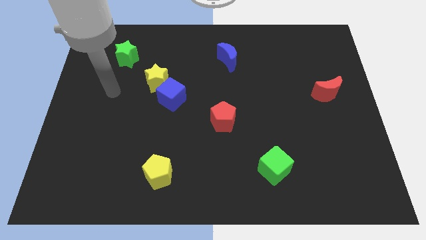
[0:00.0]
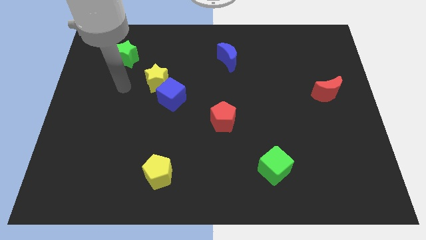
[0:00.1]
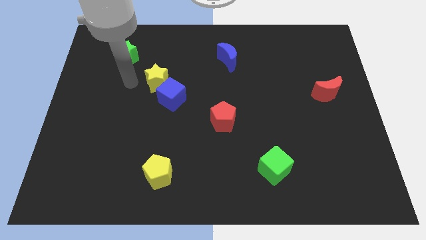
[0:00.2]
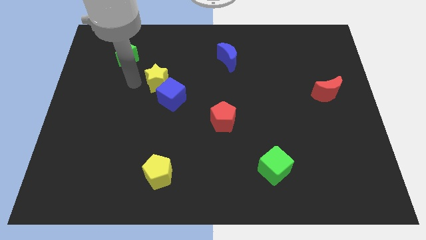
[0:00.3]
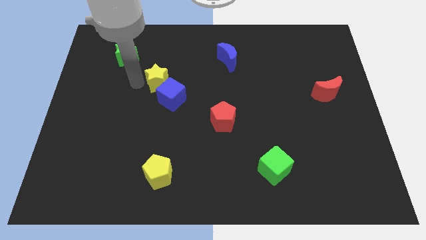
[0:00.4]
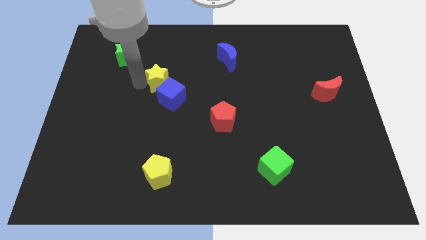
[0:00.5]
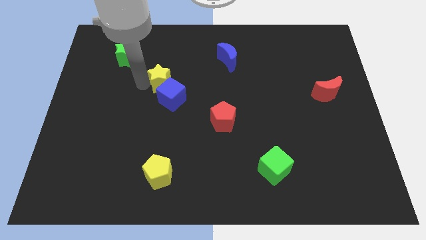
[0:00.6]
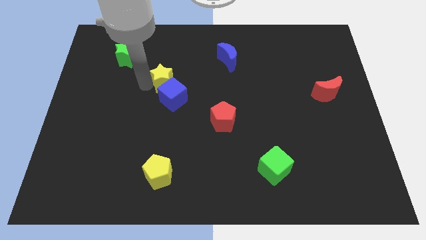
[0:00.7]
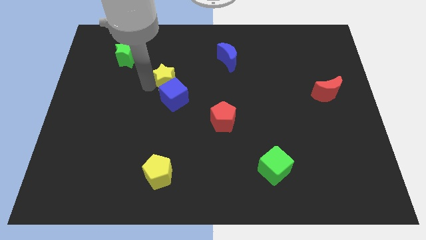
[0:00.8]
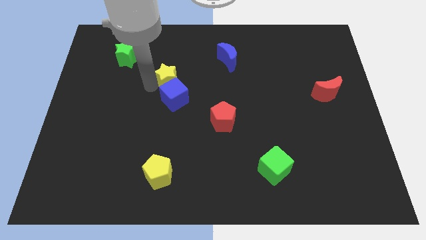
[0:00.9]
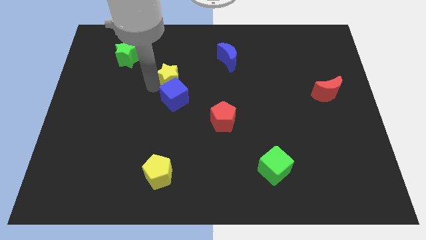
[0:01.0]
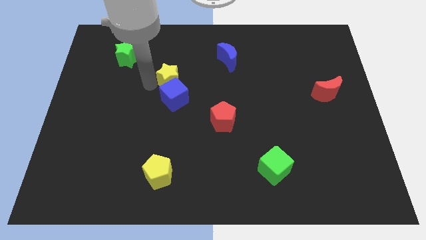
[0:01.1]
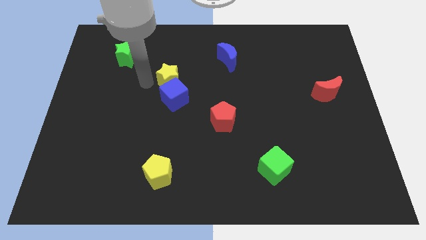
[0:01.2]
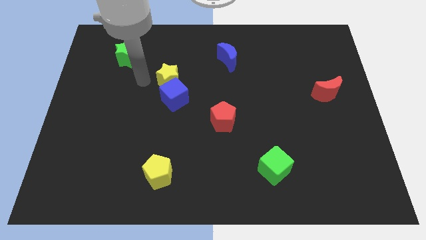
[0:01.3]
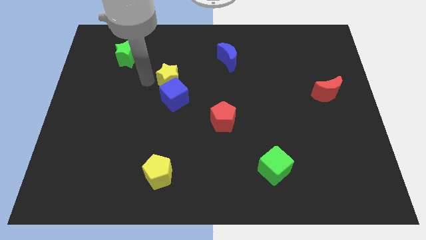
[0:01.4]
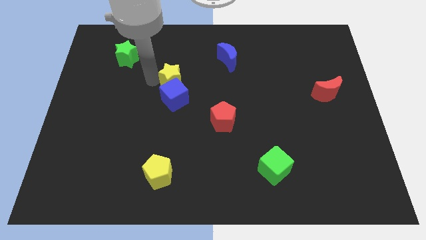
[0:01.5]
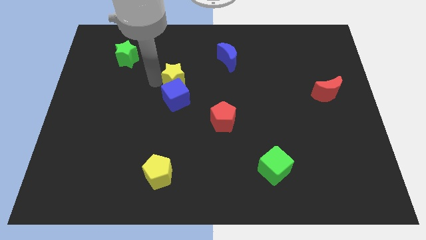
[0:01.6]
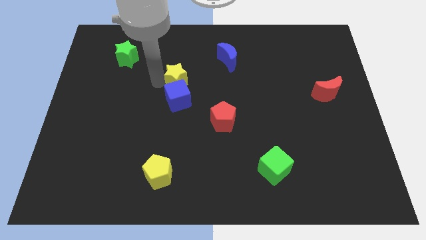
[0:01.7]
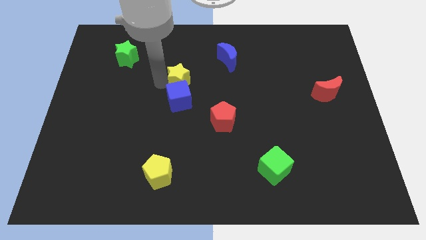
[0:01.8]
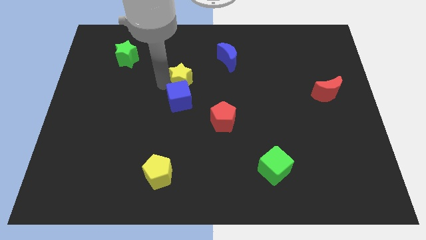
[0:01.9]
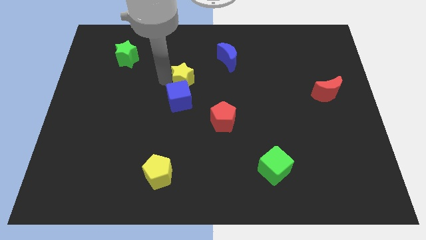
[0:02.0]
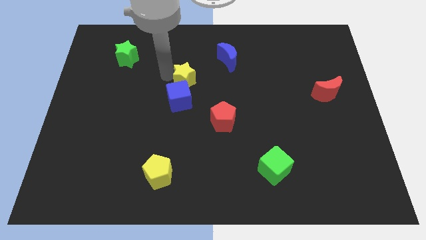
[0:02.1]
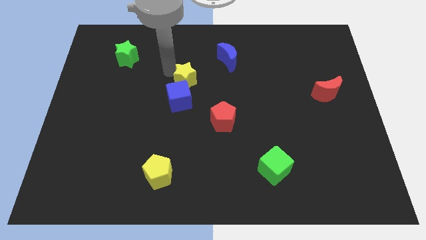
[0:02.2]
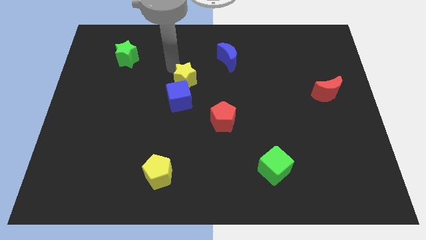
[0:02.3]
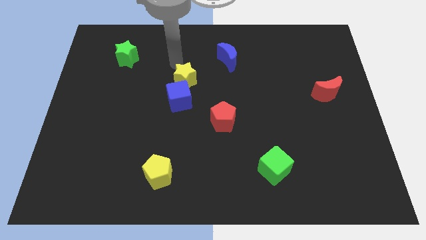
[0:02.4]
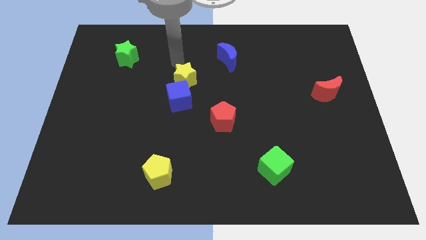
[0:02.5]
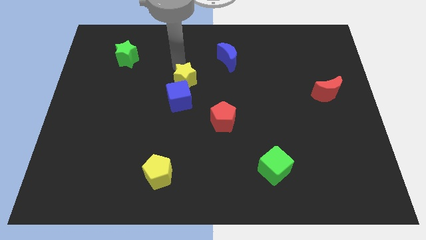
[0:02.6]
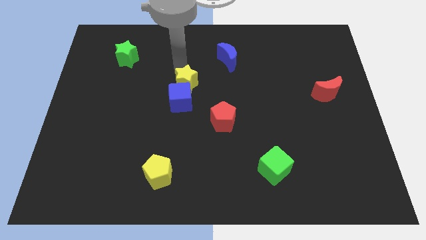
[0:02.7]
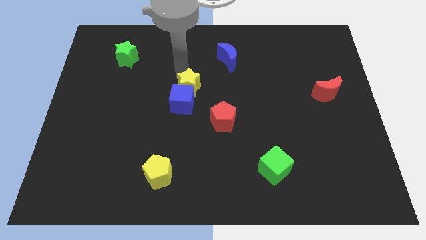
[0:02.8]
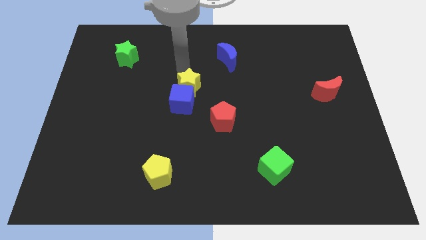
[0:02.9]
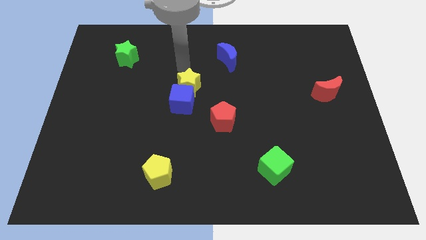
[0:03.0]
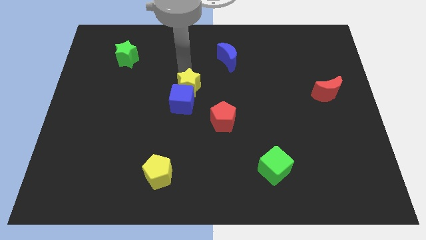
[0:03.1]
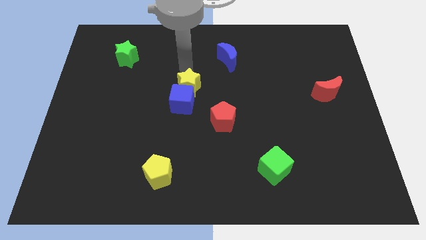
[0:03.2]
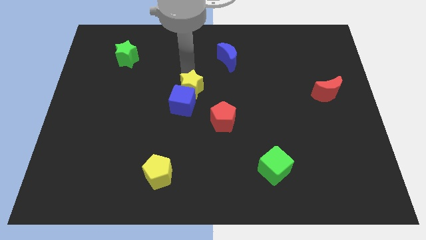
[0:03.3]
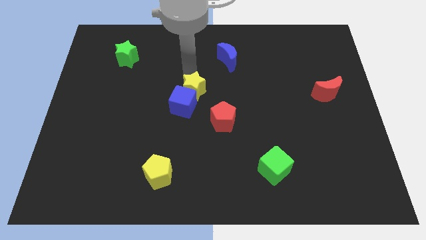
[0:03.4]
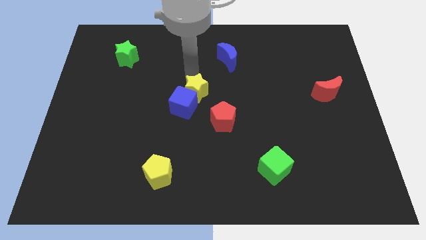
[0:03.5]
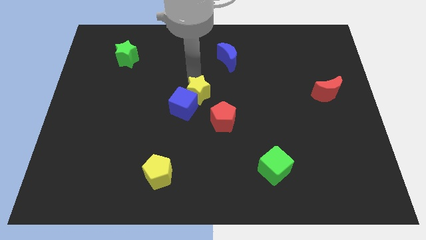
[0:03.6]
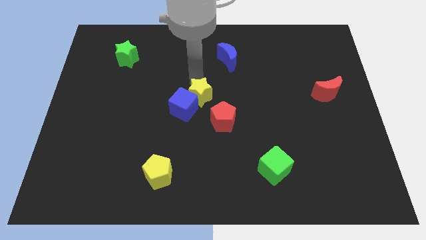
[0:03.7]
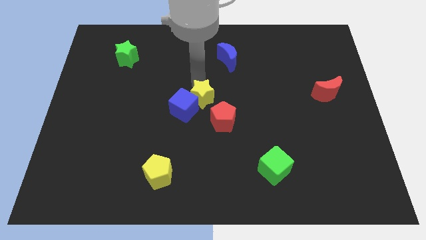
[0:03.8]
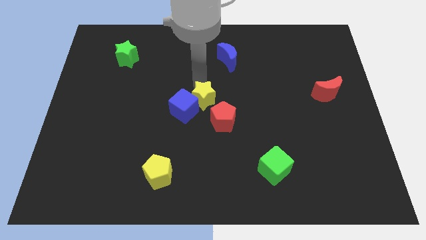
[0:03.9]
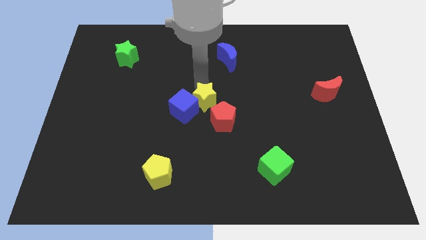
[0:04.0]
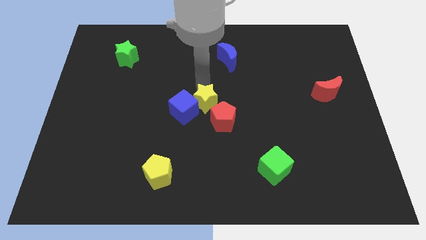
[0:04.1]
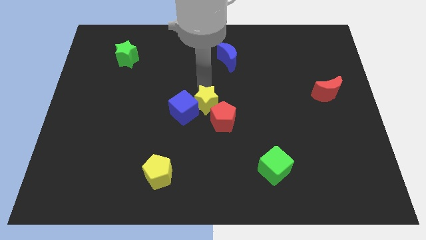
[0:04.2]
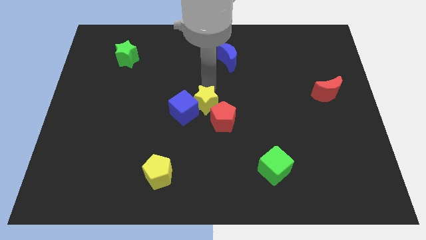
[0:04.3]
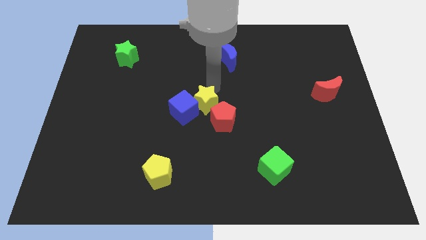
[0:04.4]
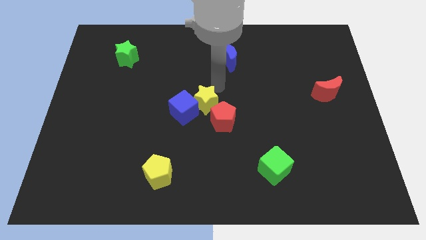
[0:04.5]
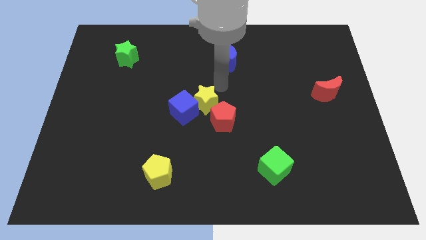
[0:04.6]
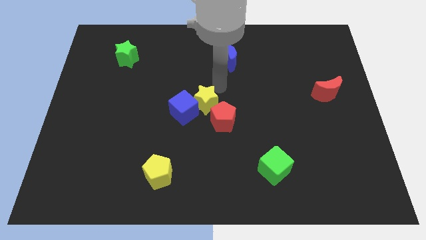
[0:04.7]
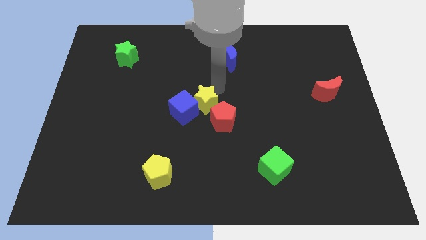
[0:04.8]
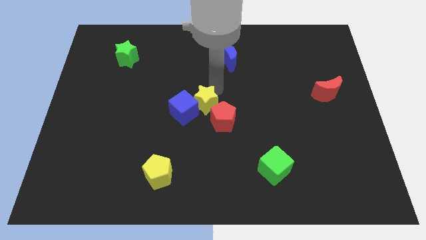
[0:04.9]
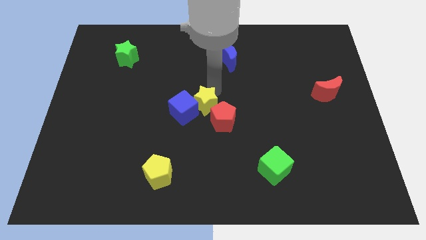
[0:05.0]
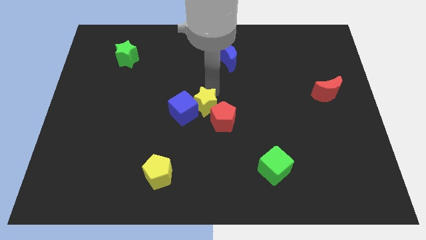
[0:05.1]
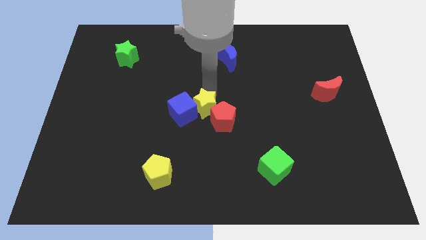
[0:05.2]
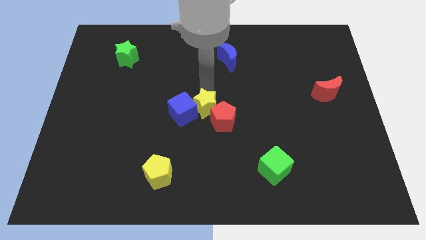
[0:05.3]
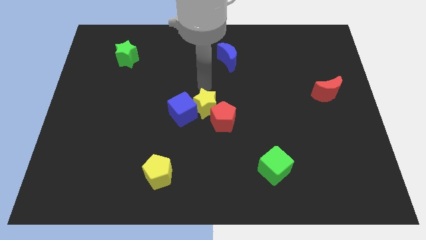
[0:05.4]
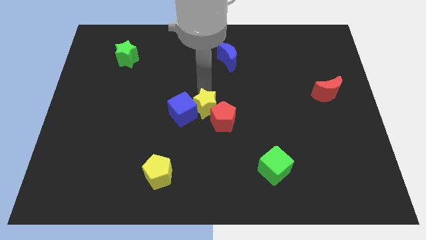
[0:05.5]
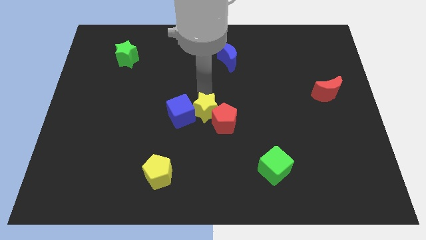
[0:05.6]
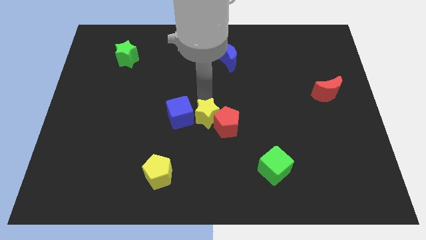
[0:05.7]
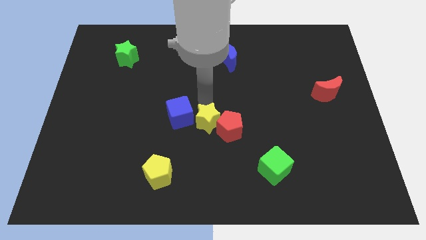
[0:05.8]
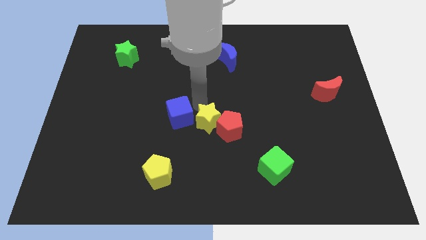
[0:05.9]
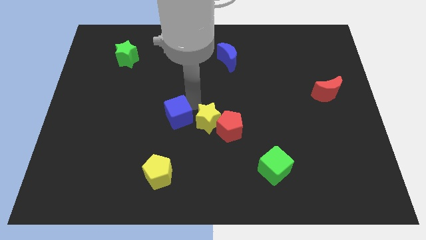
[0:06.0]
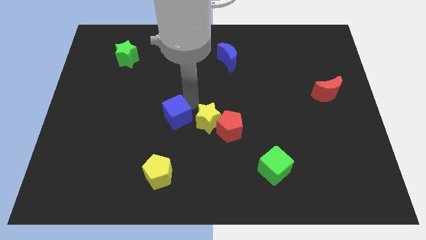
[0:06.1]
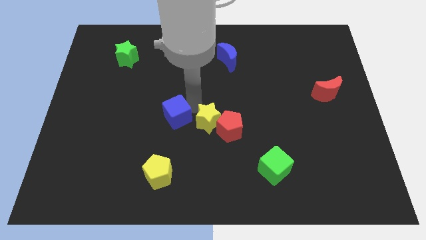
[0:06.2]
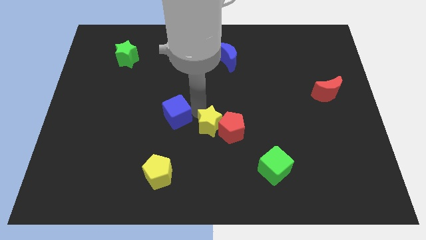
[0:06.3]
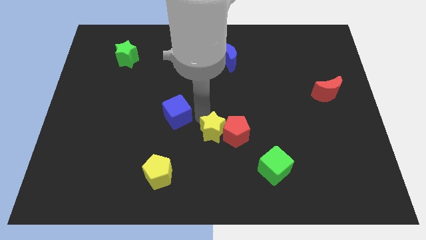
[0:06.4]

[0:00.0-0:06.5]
push the yellow star down and right

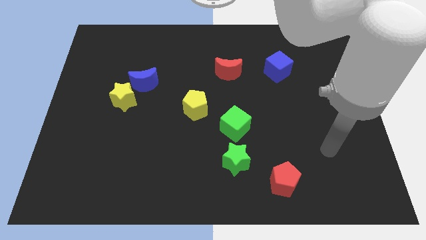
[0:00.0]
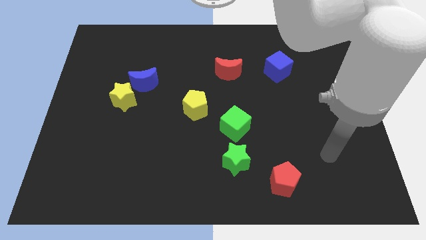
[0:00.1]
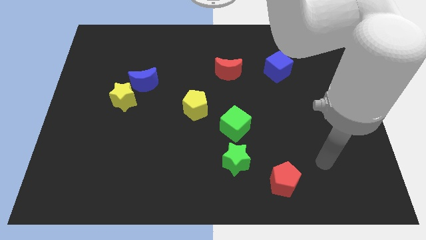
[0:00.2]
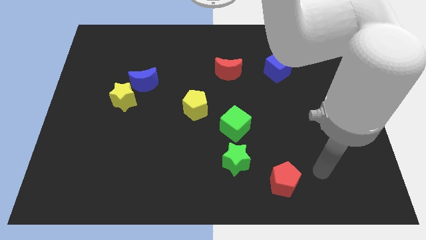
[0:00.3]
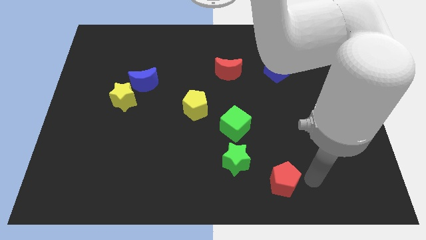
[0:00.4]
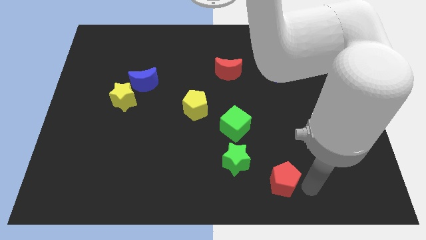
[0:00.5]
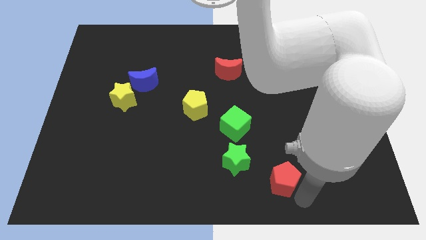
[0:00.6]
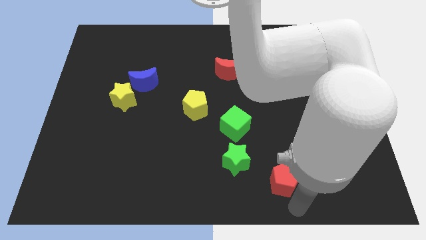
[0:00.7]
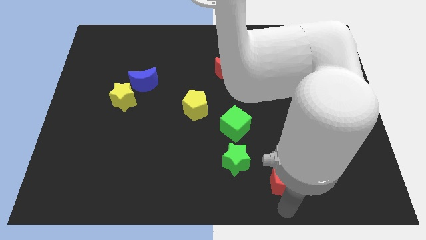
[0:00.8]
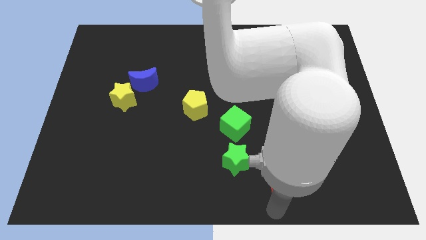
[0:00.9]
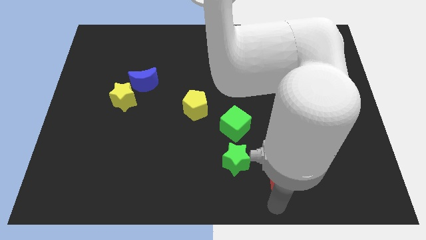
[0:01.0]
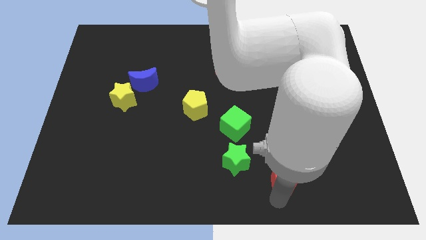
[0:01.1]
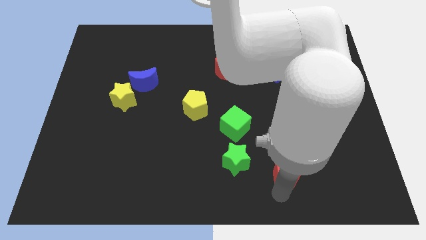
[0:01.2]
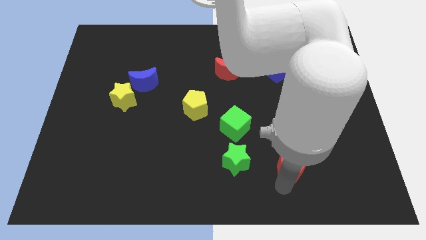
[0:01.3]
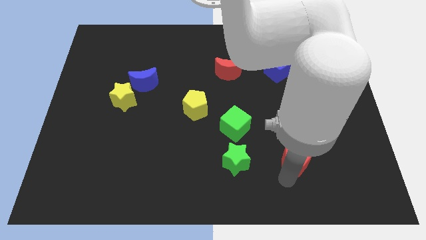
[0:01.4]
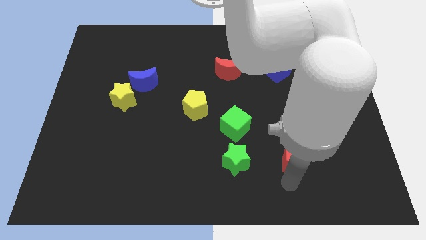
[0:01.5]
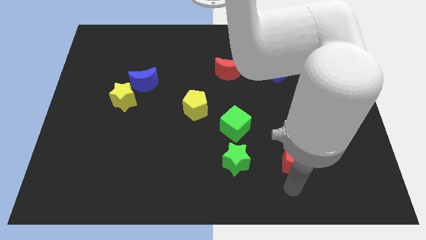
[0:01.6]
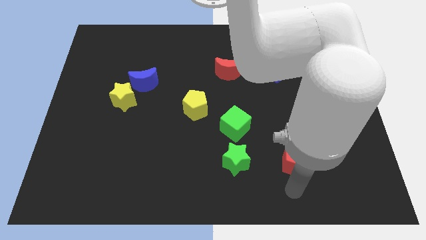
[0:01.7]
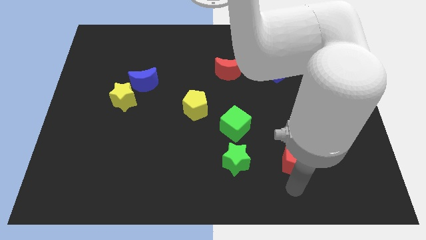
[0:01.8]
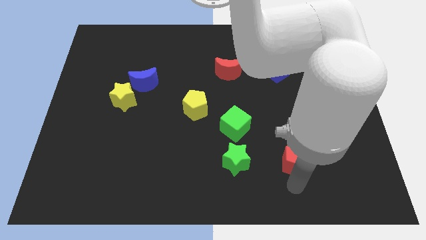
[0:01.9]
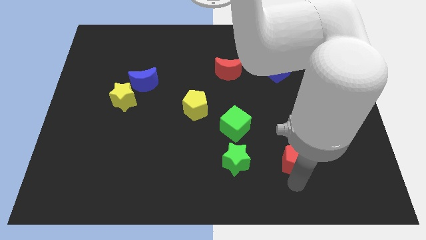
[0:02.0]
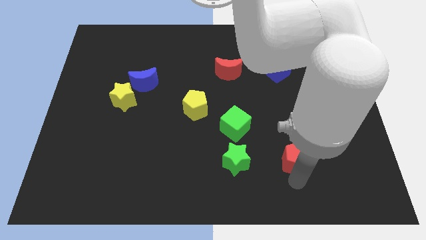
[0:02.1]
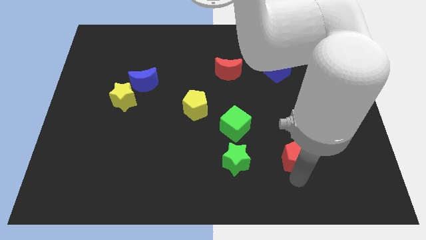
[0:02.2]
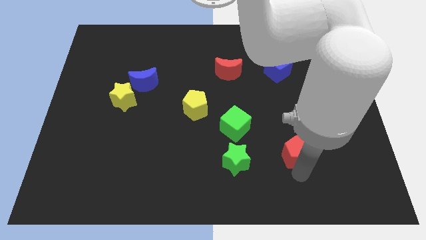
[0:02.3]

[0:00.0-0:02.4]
slide the red pentagon diagonally upwards and right a bit
